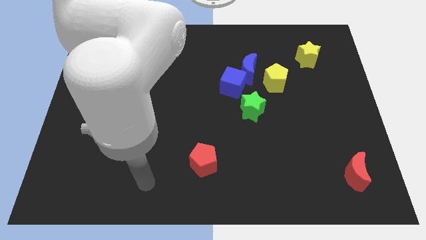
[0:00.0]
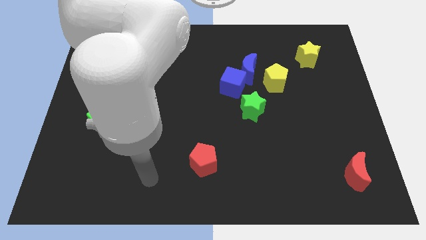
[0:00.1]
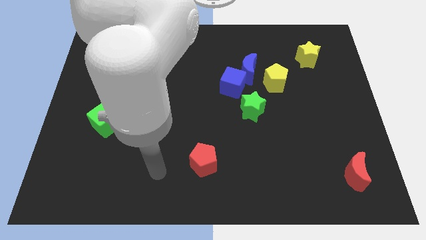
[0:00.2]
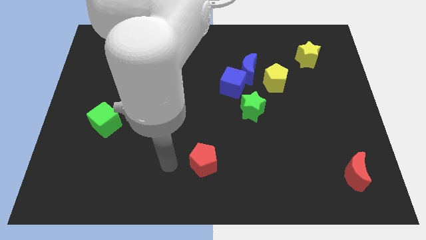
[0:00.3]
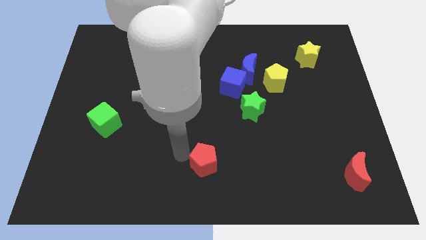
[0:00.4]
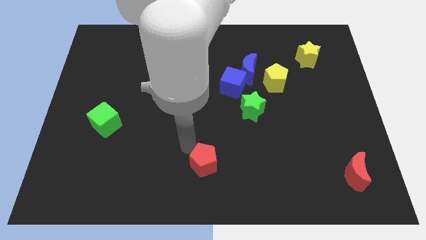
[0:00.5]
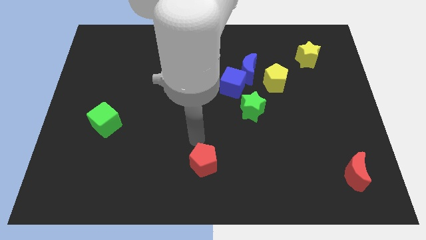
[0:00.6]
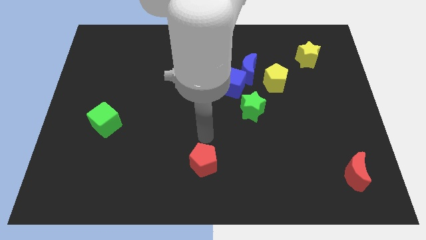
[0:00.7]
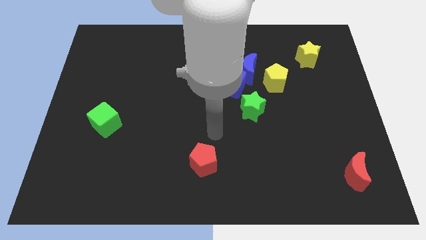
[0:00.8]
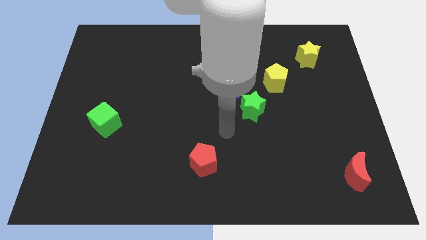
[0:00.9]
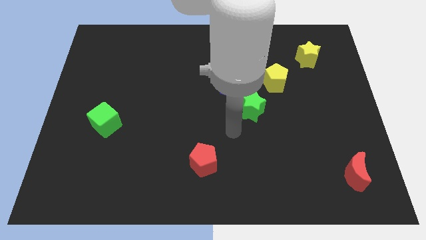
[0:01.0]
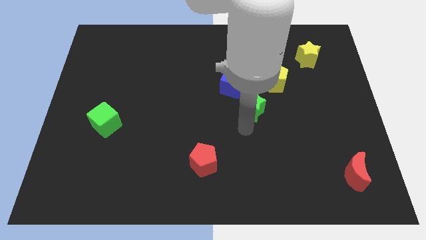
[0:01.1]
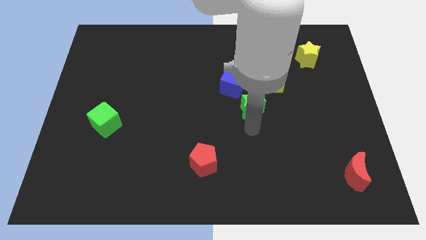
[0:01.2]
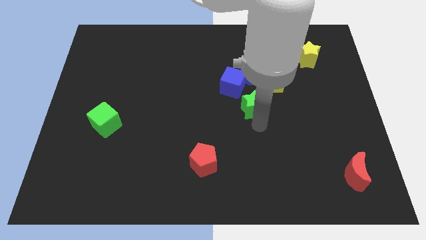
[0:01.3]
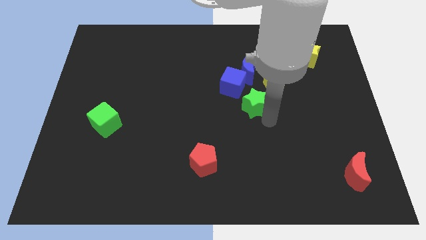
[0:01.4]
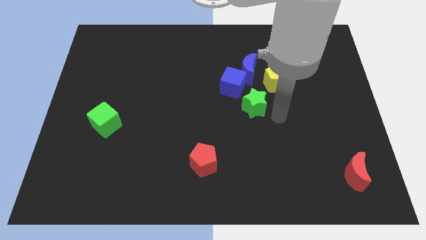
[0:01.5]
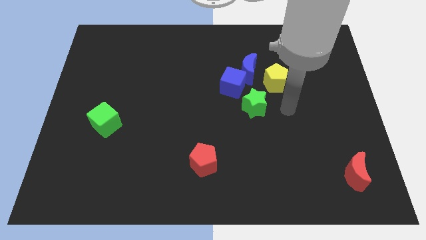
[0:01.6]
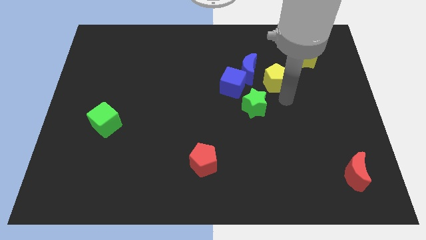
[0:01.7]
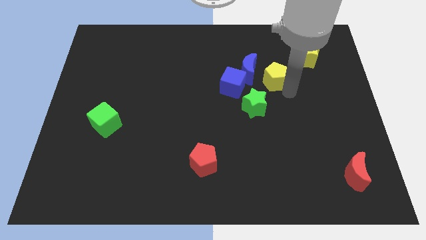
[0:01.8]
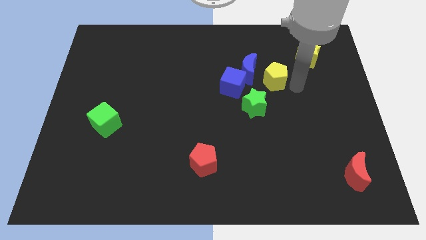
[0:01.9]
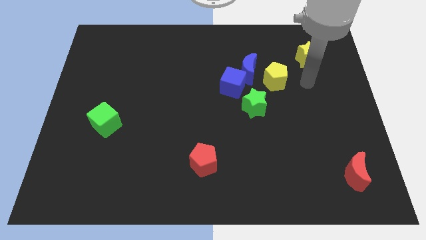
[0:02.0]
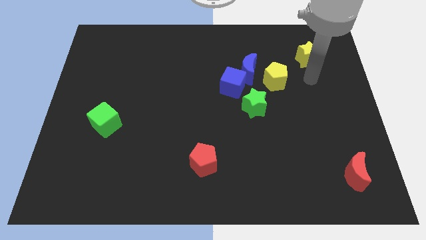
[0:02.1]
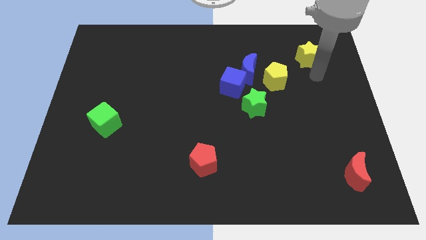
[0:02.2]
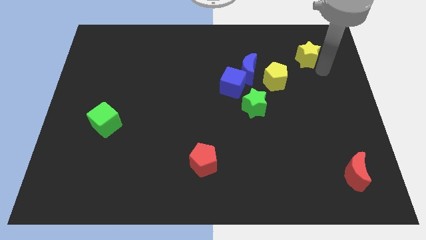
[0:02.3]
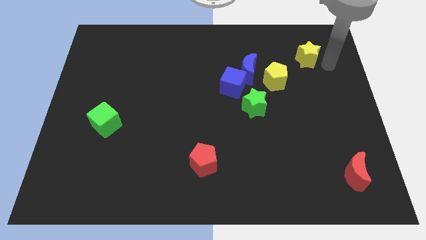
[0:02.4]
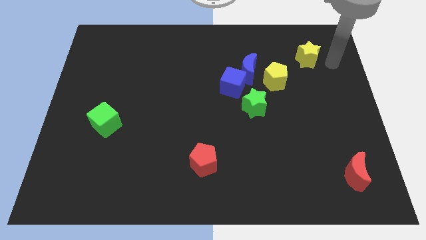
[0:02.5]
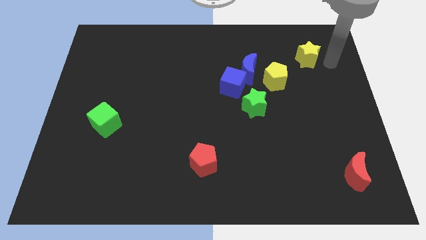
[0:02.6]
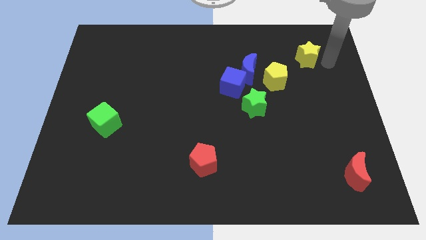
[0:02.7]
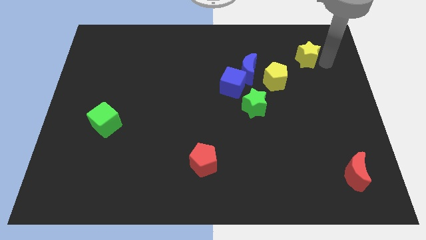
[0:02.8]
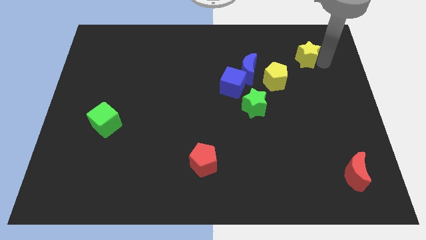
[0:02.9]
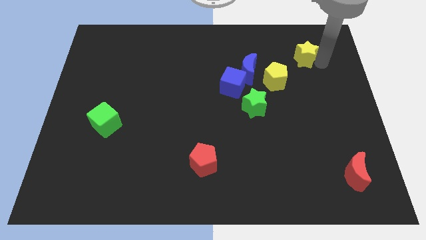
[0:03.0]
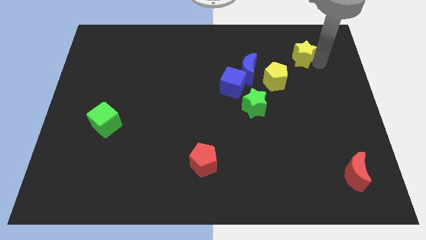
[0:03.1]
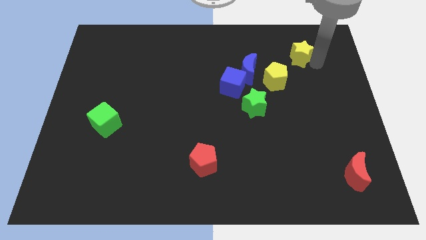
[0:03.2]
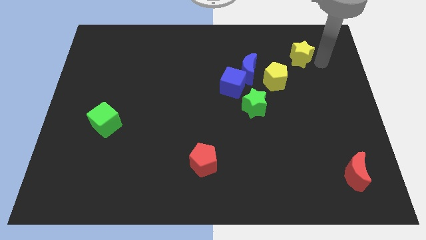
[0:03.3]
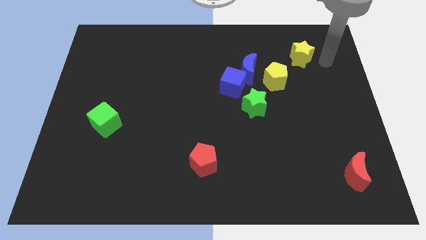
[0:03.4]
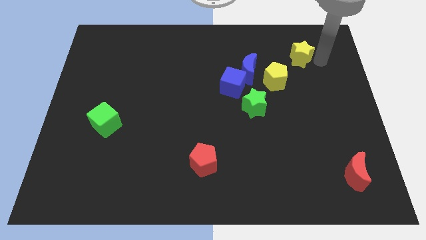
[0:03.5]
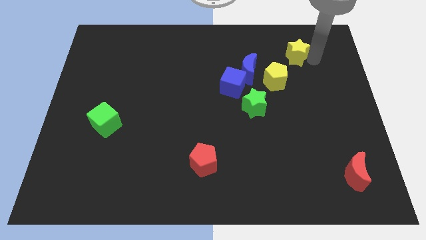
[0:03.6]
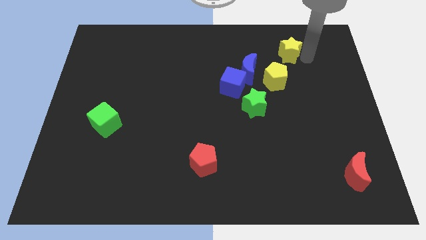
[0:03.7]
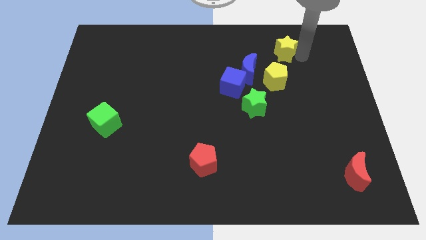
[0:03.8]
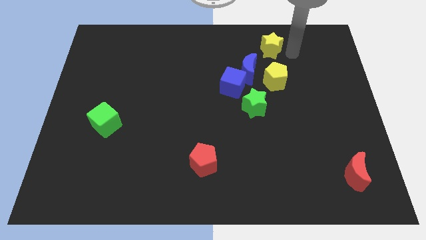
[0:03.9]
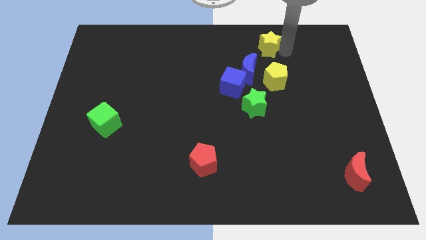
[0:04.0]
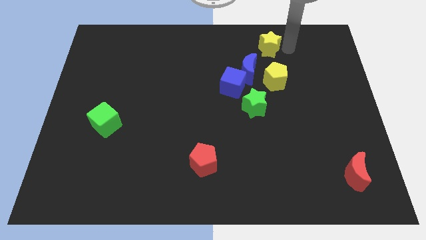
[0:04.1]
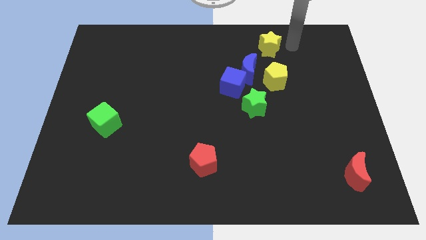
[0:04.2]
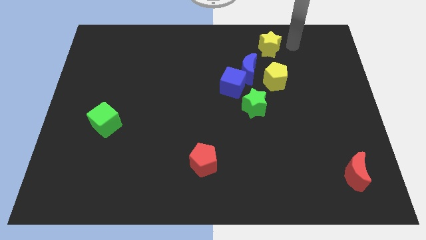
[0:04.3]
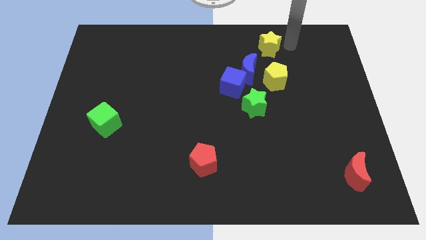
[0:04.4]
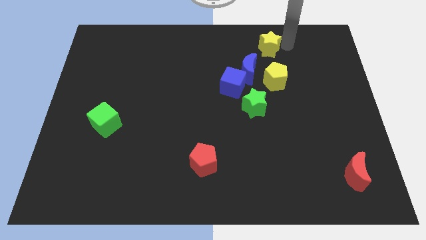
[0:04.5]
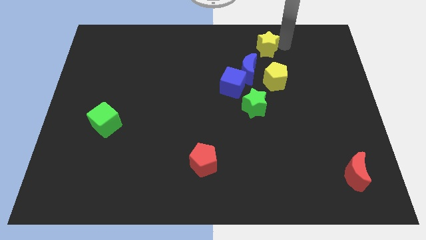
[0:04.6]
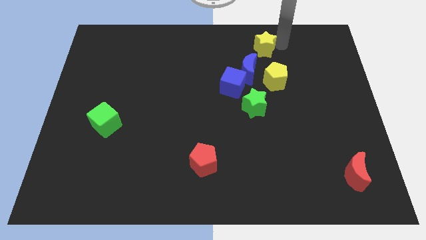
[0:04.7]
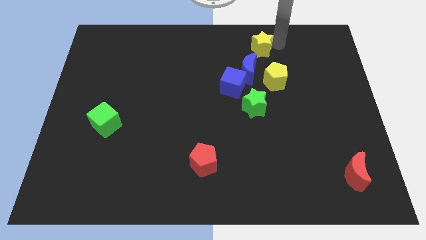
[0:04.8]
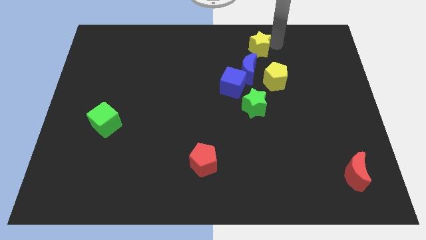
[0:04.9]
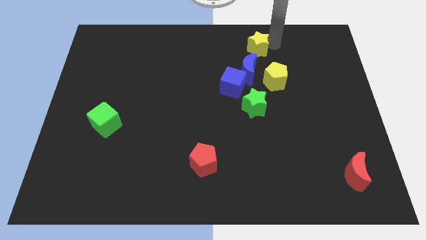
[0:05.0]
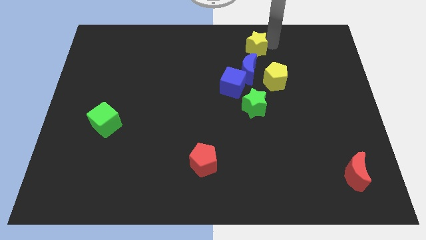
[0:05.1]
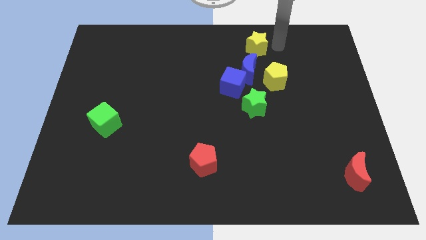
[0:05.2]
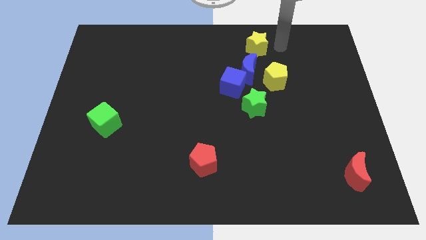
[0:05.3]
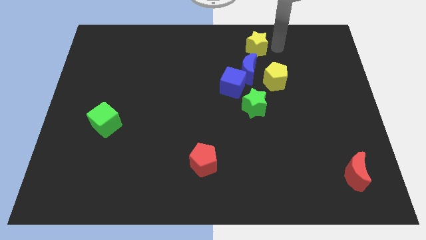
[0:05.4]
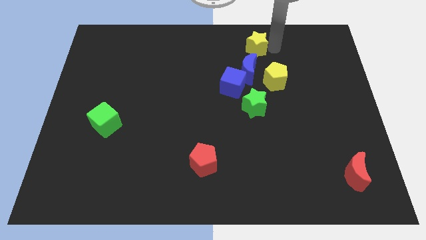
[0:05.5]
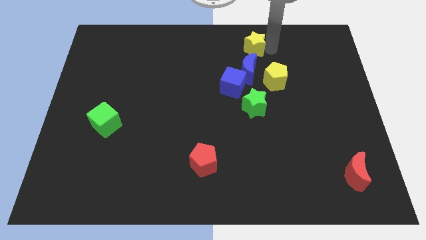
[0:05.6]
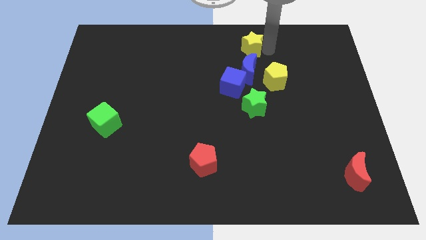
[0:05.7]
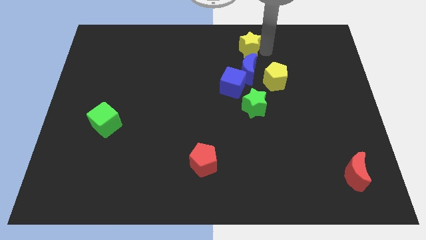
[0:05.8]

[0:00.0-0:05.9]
move the yellow star to the top
